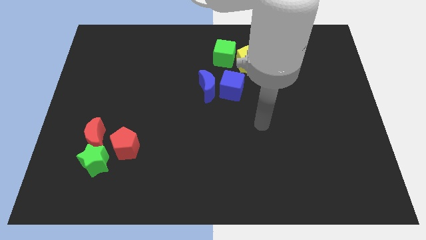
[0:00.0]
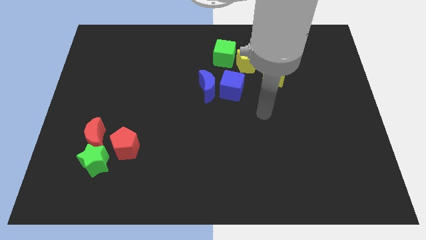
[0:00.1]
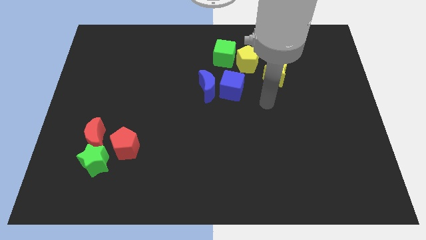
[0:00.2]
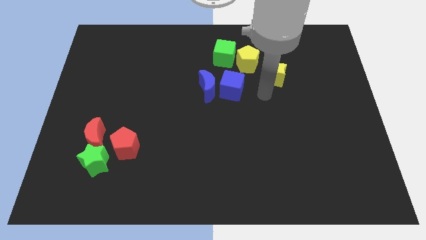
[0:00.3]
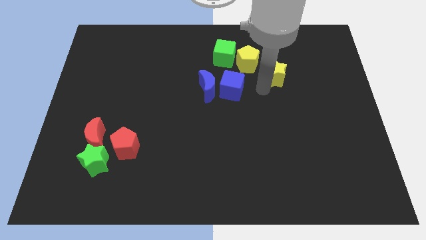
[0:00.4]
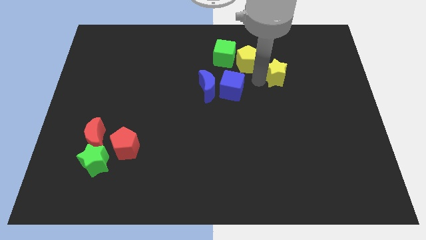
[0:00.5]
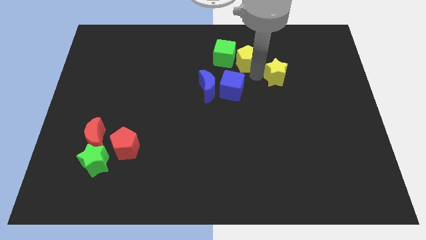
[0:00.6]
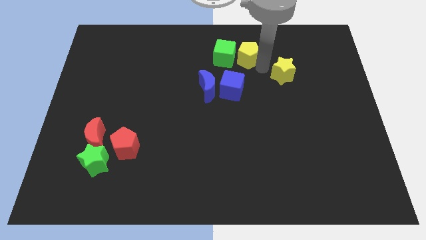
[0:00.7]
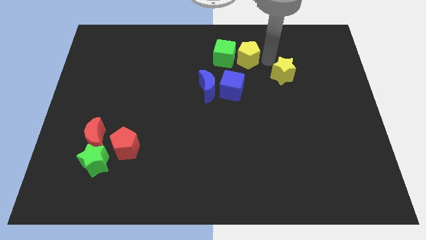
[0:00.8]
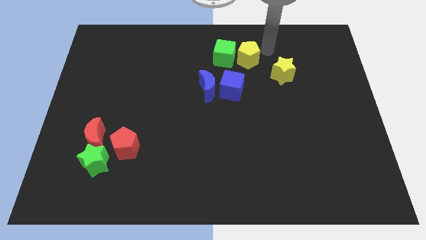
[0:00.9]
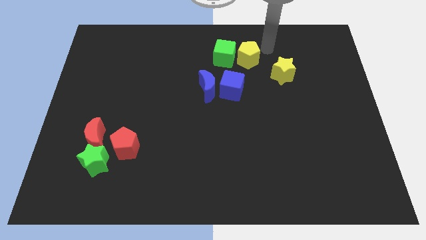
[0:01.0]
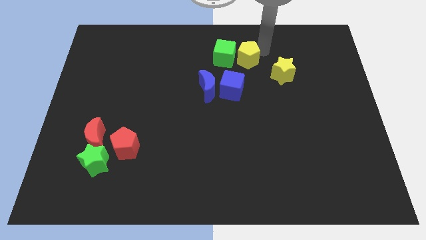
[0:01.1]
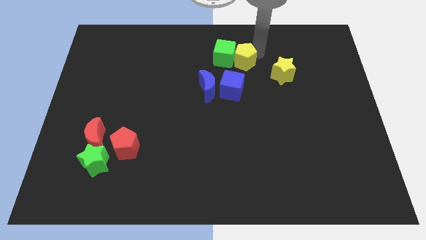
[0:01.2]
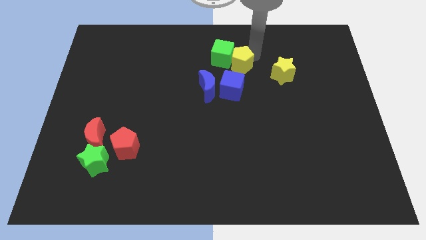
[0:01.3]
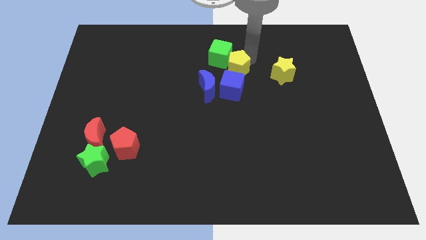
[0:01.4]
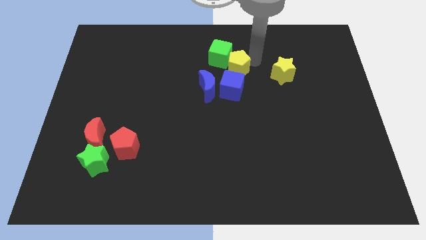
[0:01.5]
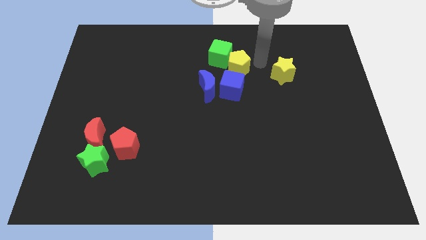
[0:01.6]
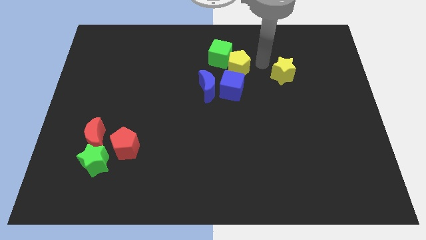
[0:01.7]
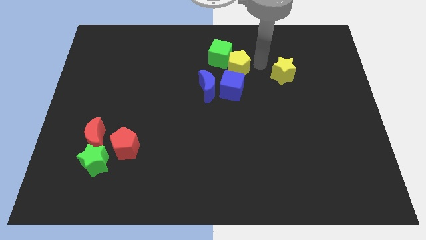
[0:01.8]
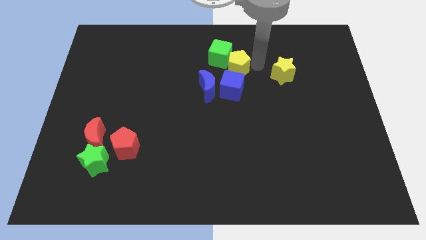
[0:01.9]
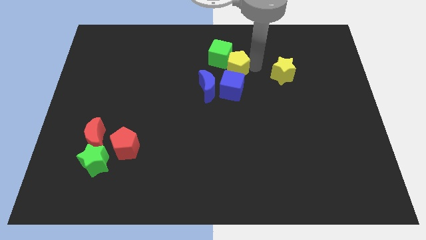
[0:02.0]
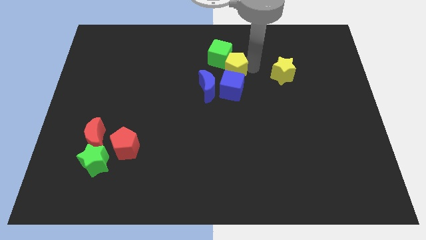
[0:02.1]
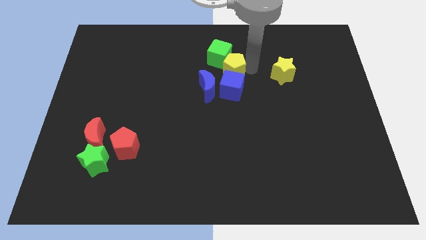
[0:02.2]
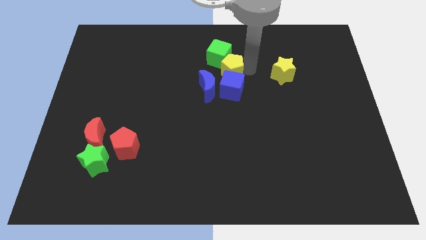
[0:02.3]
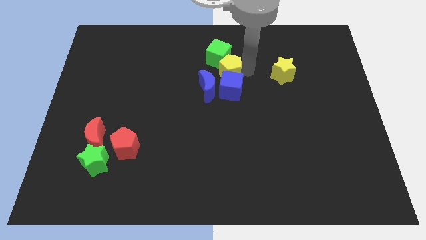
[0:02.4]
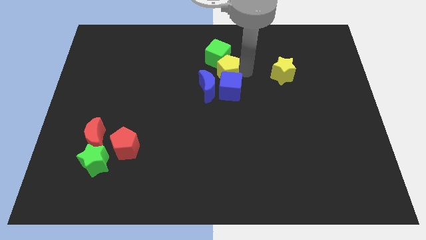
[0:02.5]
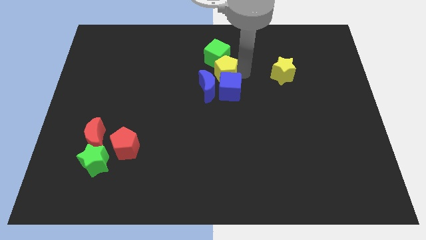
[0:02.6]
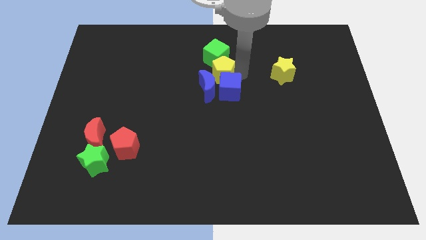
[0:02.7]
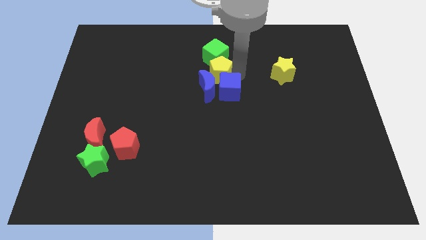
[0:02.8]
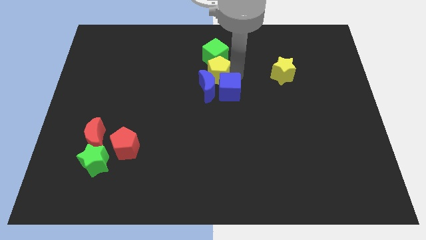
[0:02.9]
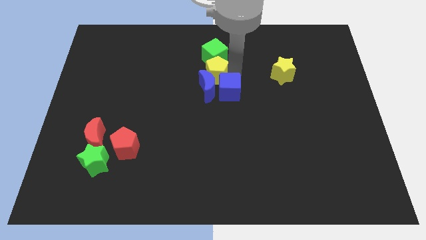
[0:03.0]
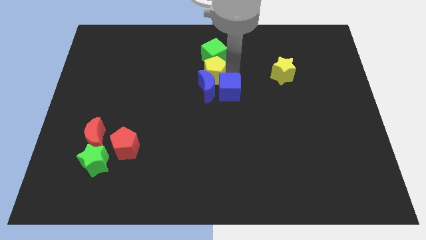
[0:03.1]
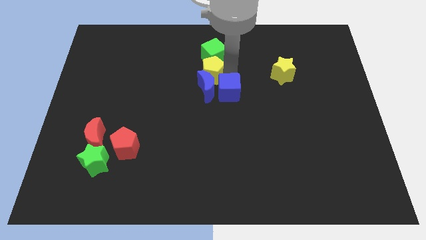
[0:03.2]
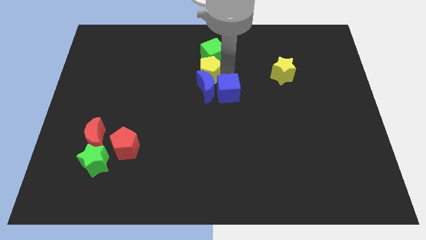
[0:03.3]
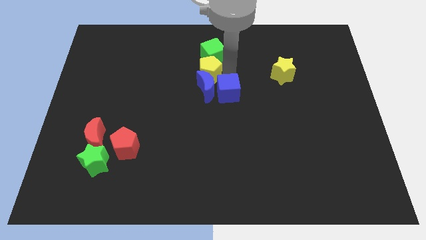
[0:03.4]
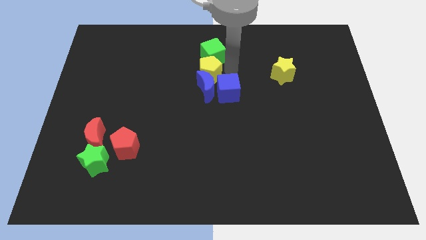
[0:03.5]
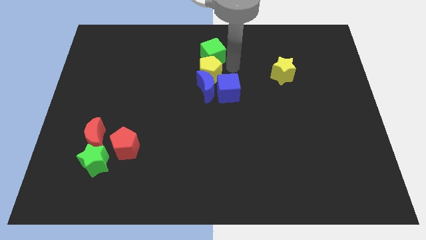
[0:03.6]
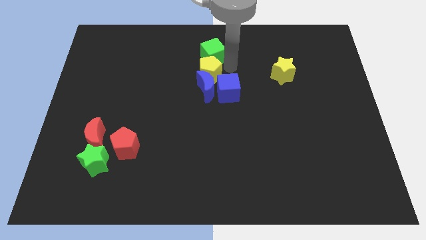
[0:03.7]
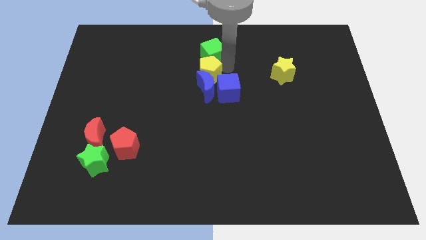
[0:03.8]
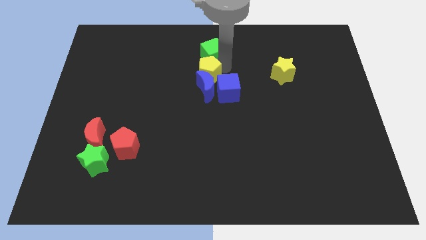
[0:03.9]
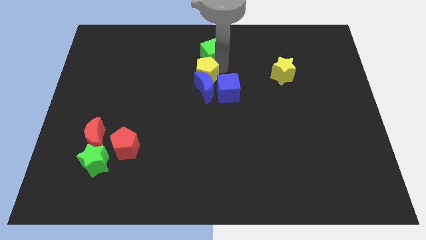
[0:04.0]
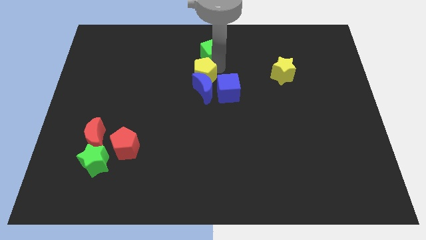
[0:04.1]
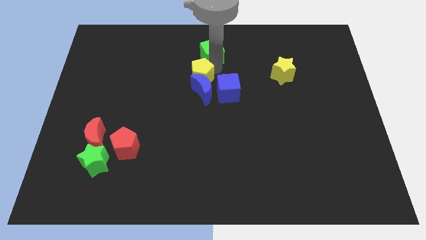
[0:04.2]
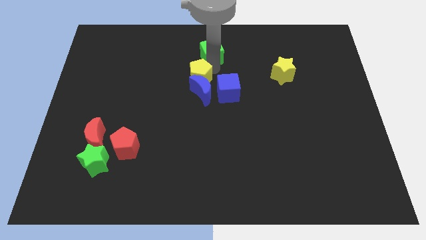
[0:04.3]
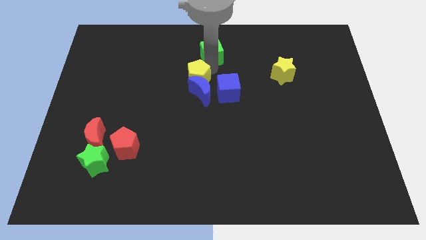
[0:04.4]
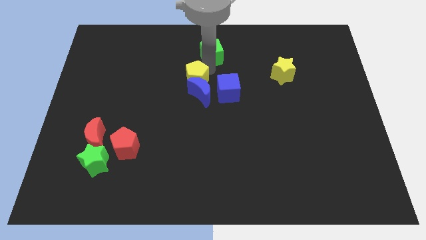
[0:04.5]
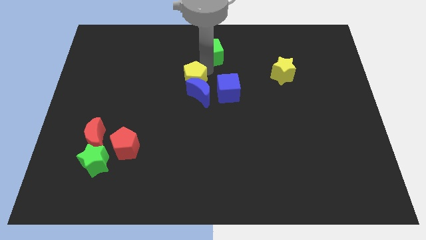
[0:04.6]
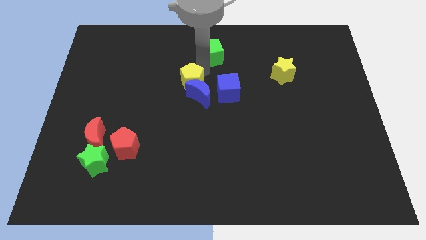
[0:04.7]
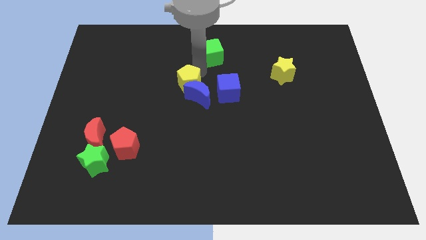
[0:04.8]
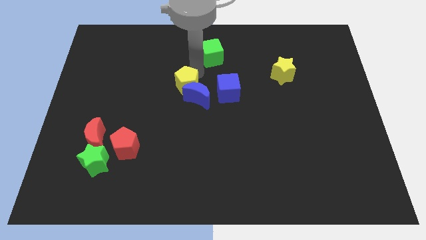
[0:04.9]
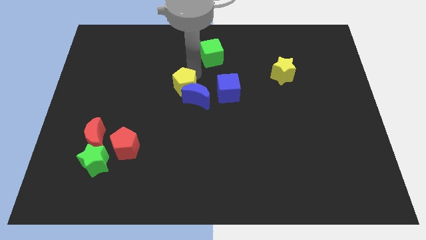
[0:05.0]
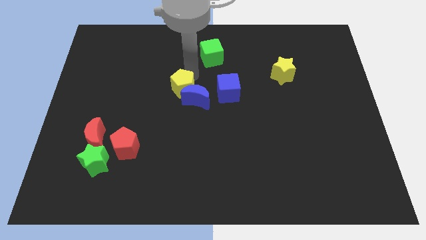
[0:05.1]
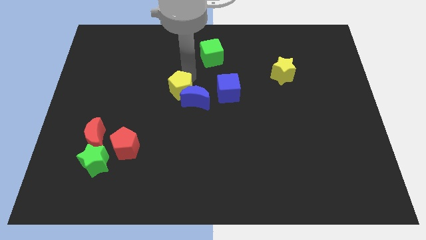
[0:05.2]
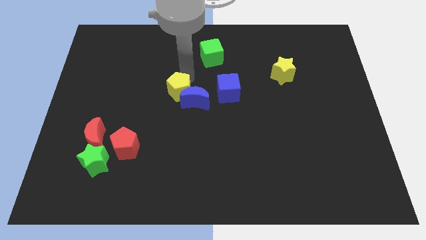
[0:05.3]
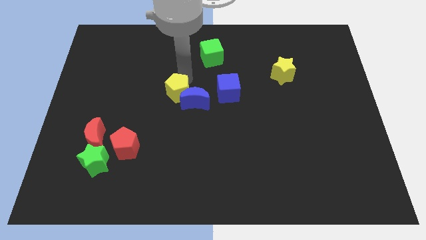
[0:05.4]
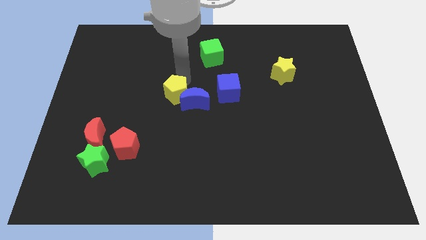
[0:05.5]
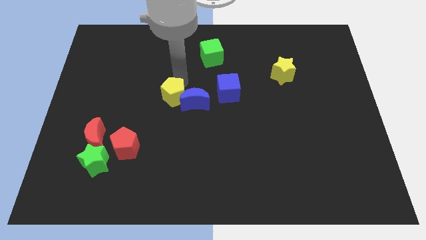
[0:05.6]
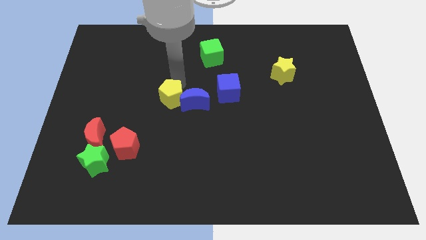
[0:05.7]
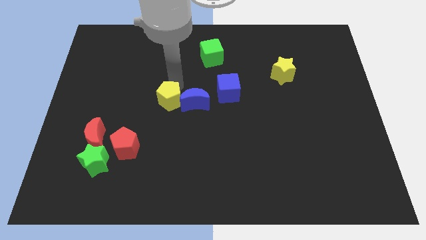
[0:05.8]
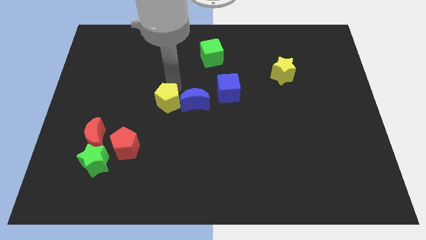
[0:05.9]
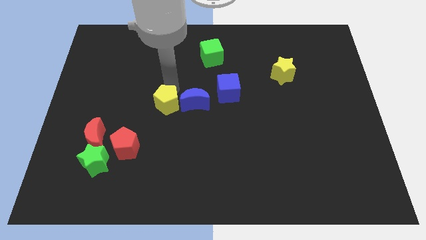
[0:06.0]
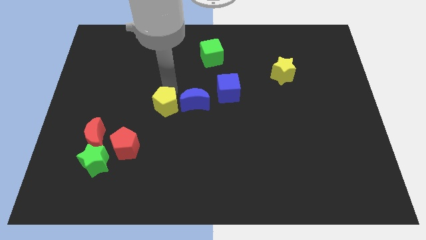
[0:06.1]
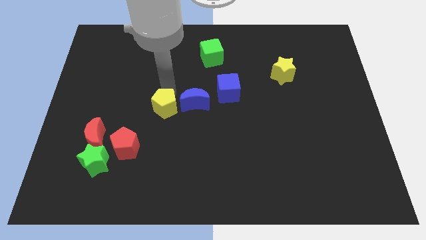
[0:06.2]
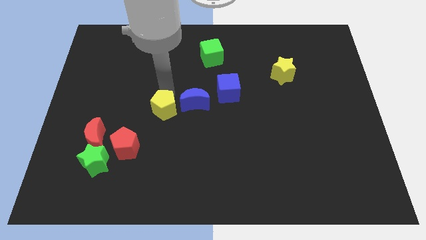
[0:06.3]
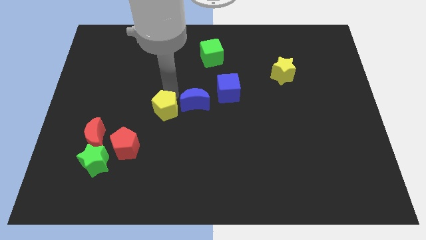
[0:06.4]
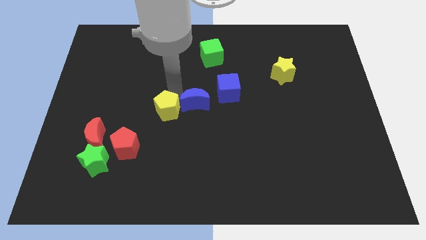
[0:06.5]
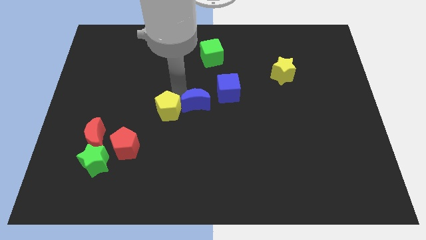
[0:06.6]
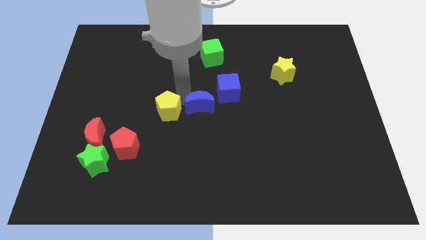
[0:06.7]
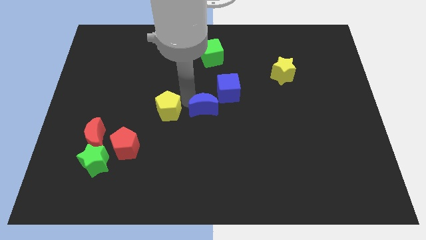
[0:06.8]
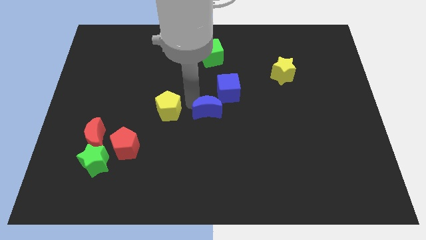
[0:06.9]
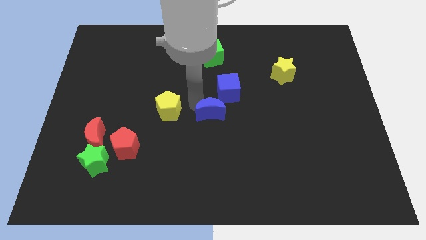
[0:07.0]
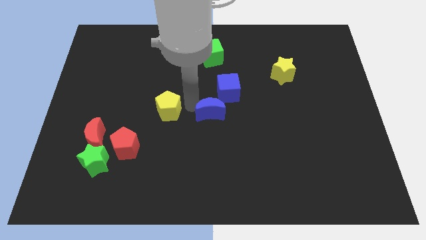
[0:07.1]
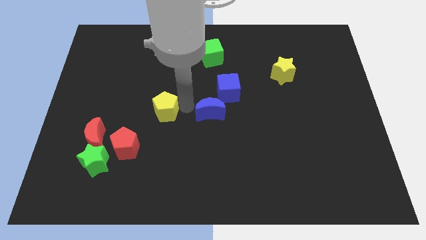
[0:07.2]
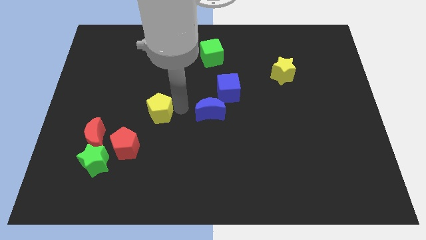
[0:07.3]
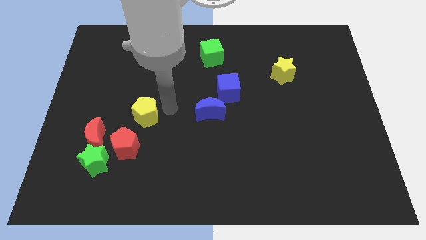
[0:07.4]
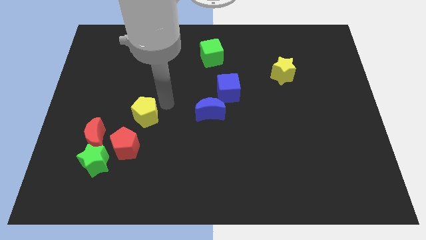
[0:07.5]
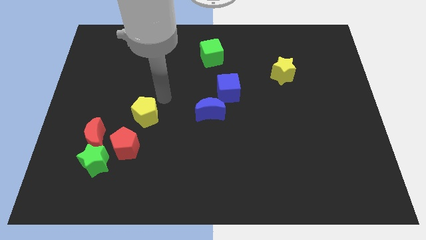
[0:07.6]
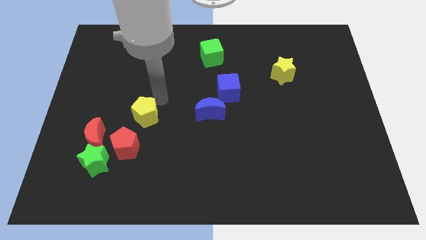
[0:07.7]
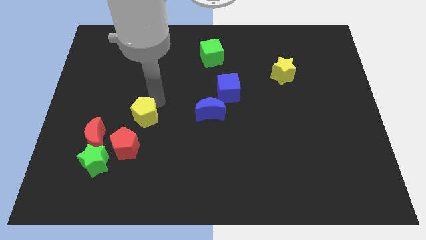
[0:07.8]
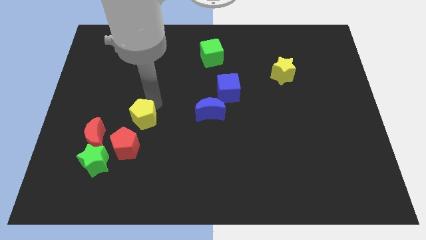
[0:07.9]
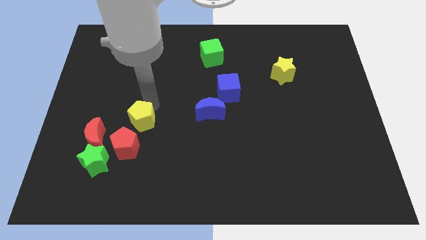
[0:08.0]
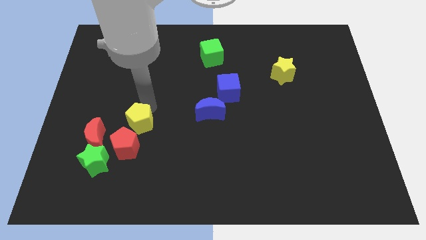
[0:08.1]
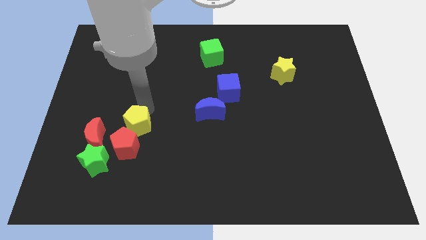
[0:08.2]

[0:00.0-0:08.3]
put the yellow pentagon to the top right of the green star
